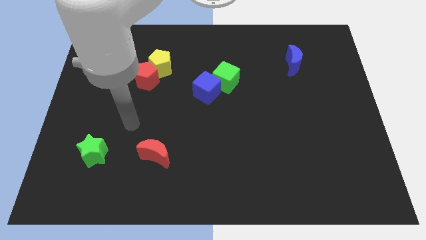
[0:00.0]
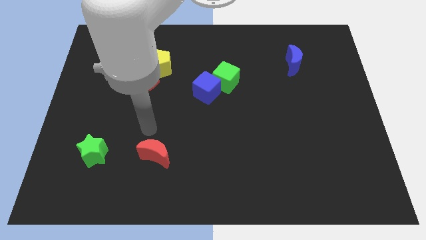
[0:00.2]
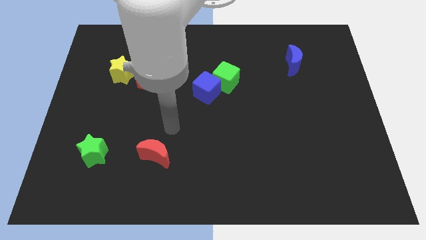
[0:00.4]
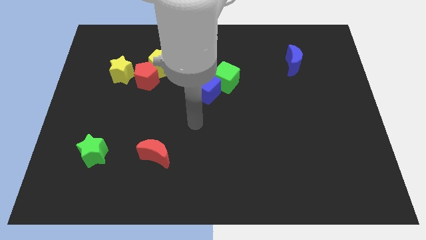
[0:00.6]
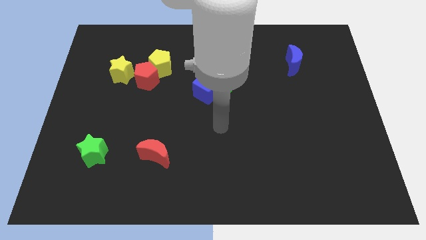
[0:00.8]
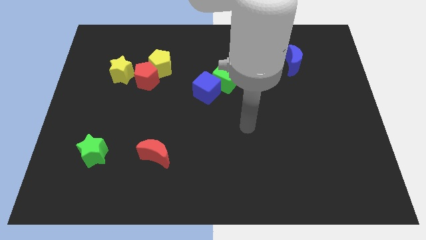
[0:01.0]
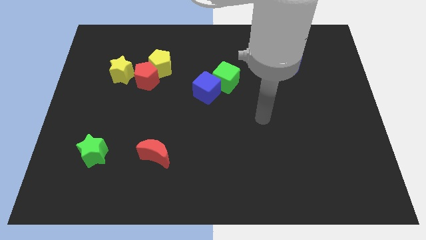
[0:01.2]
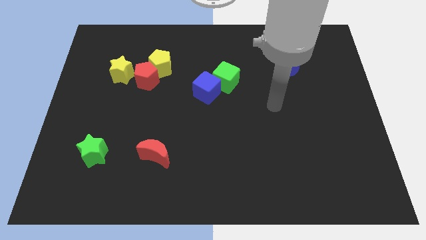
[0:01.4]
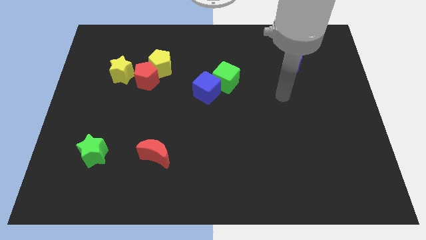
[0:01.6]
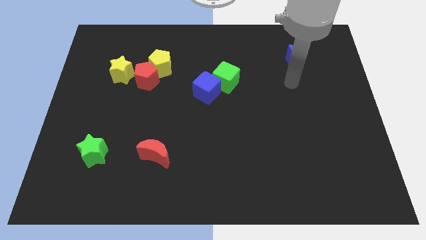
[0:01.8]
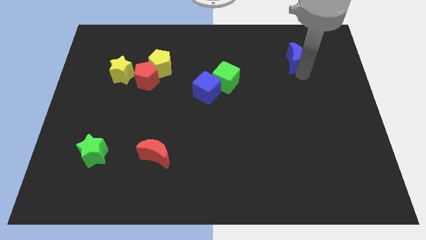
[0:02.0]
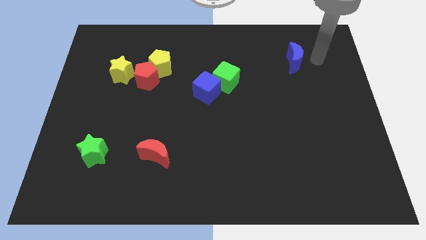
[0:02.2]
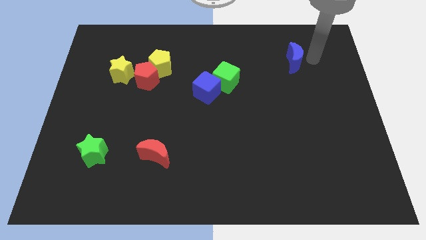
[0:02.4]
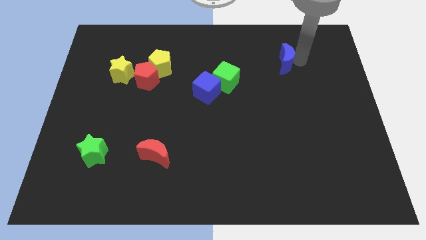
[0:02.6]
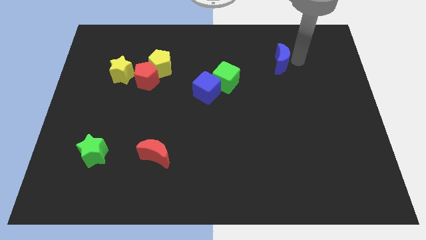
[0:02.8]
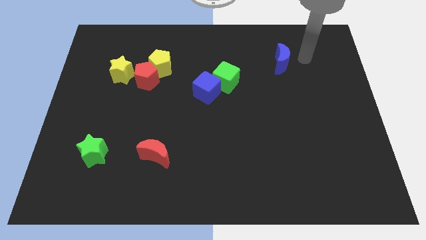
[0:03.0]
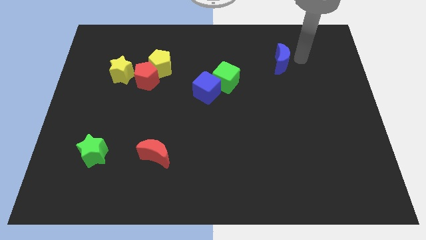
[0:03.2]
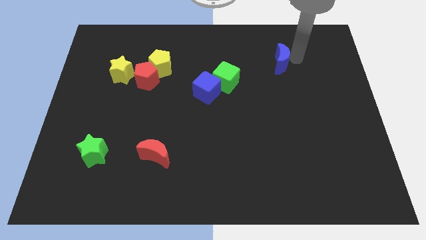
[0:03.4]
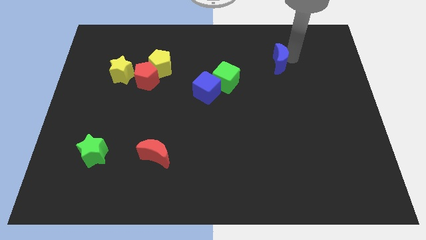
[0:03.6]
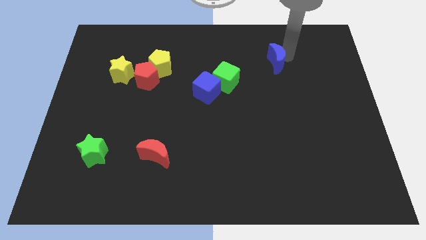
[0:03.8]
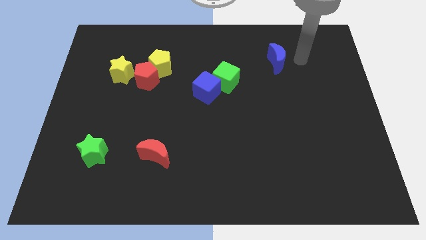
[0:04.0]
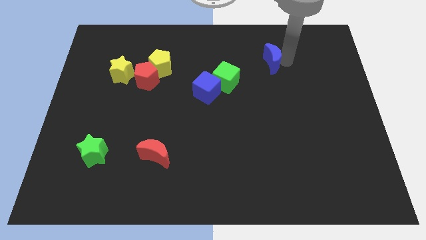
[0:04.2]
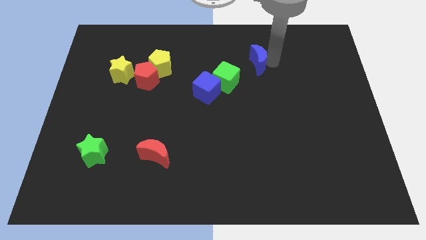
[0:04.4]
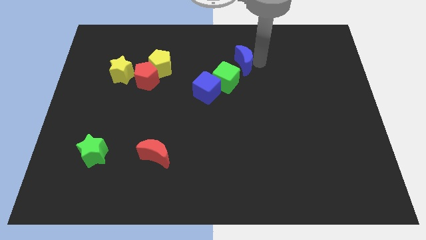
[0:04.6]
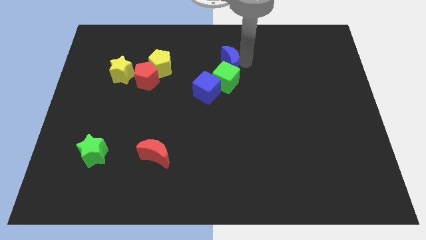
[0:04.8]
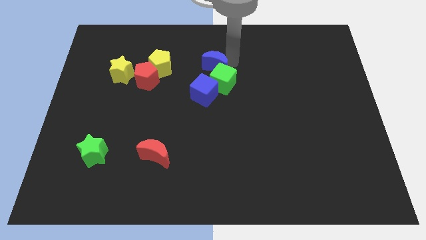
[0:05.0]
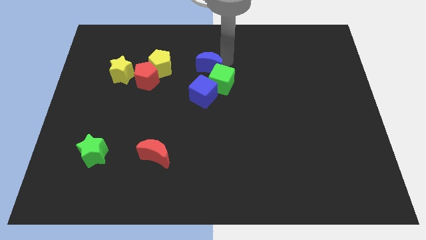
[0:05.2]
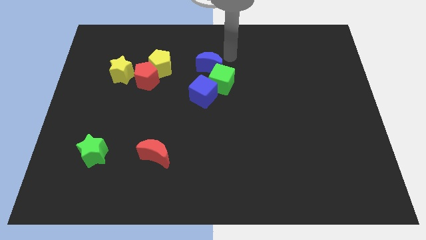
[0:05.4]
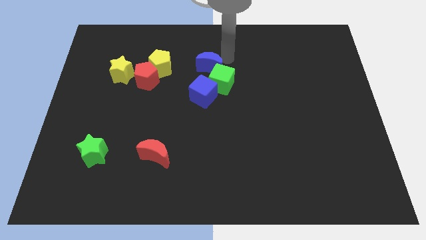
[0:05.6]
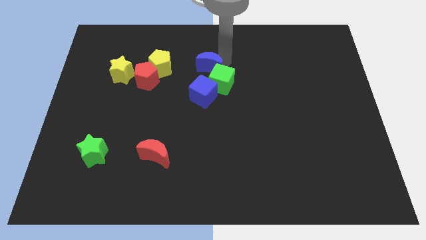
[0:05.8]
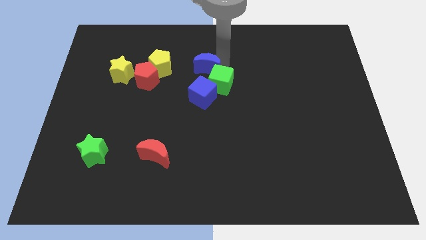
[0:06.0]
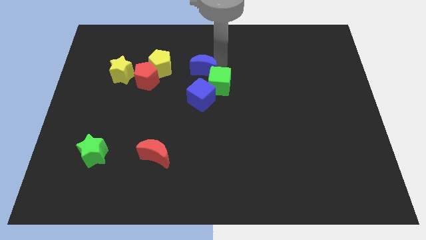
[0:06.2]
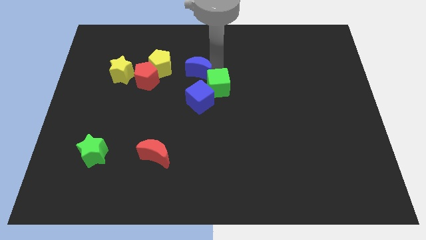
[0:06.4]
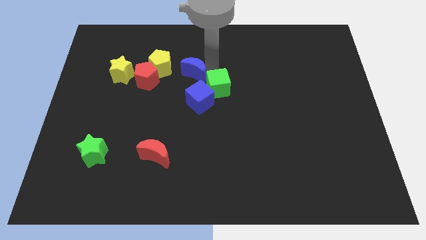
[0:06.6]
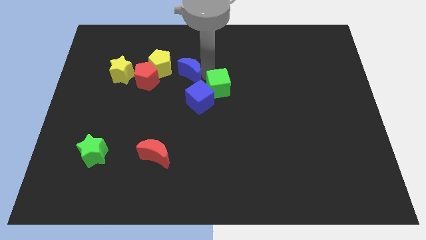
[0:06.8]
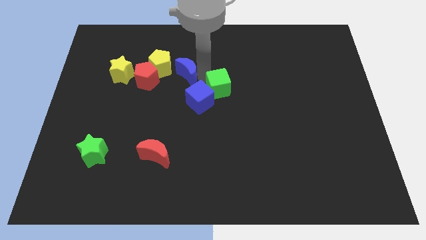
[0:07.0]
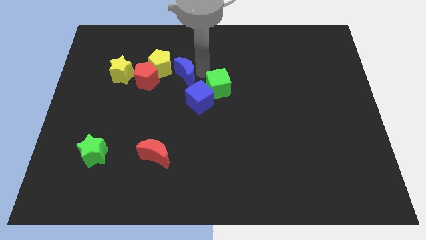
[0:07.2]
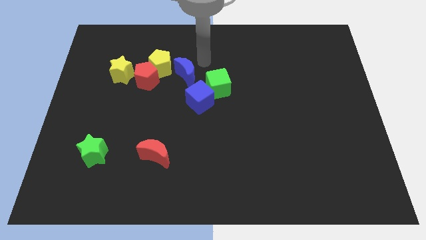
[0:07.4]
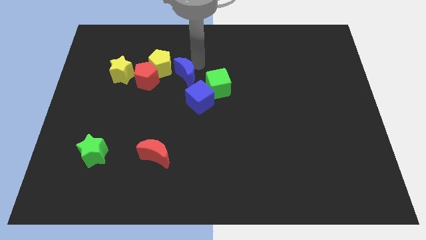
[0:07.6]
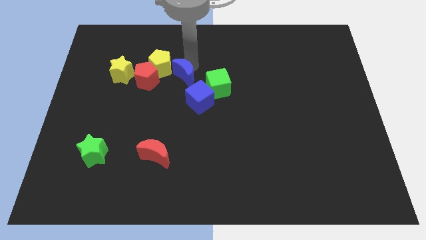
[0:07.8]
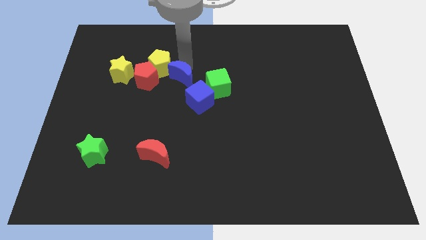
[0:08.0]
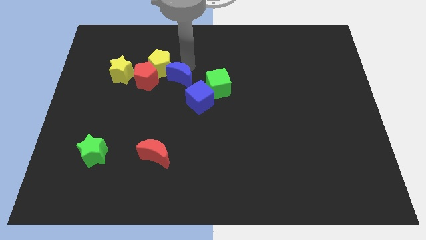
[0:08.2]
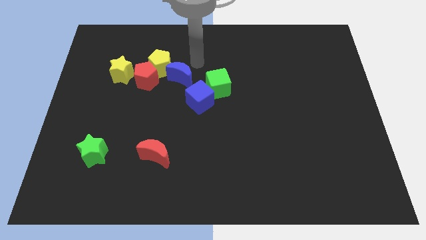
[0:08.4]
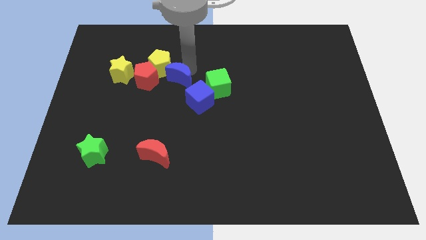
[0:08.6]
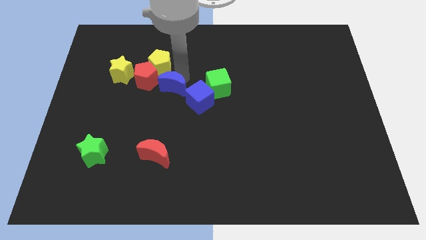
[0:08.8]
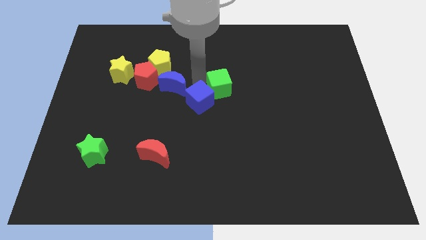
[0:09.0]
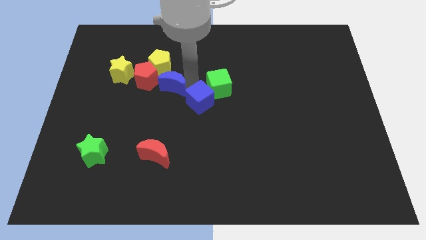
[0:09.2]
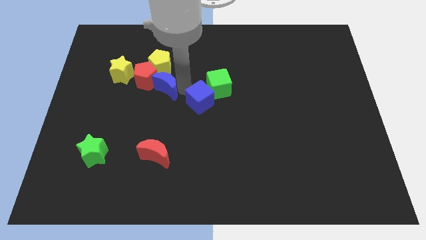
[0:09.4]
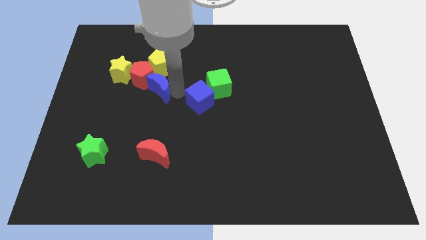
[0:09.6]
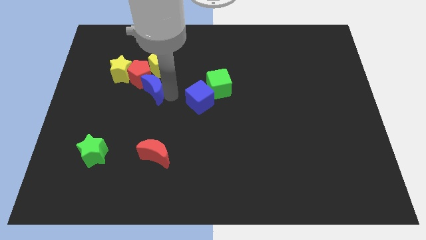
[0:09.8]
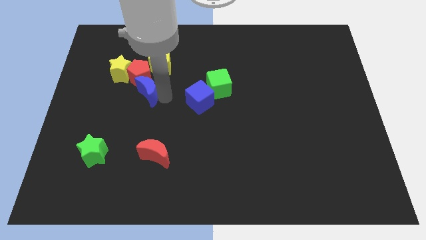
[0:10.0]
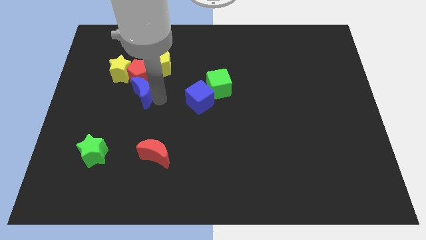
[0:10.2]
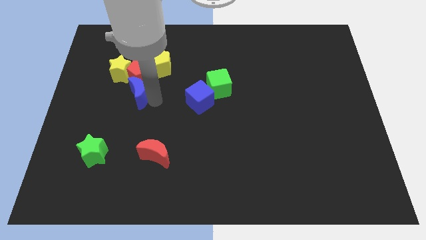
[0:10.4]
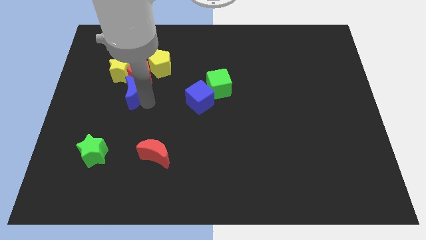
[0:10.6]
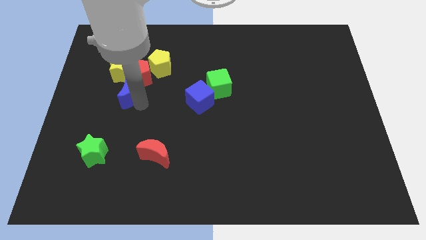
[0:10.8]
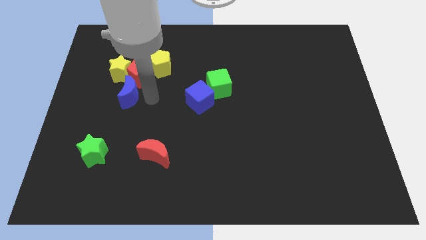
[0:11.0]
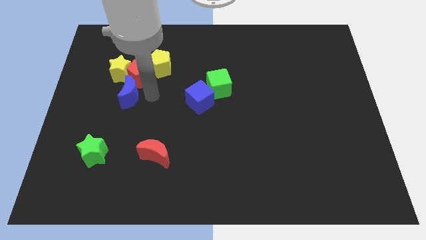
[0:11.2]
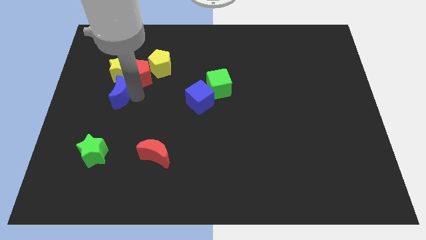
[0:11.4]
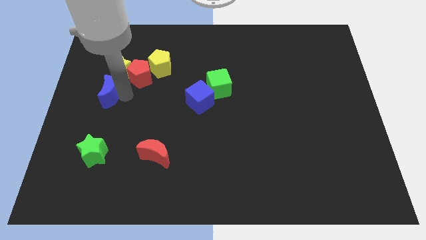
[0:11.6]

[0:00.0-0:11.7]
put the blue moon to the left side of the board

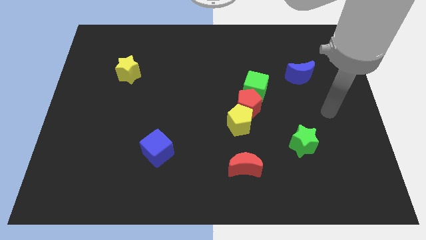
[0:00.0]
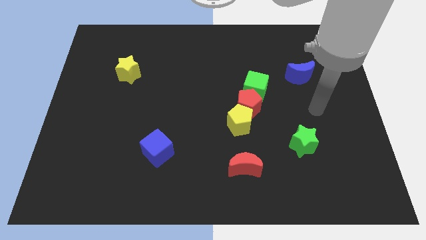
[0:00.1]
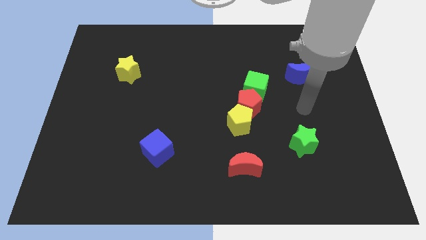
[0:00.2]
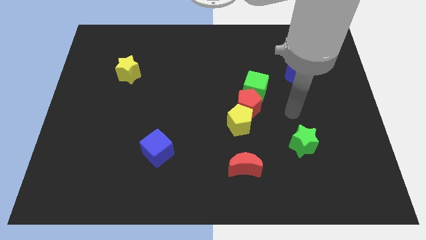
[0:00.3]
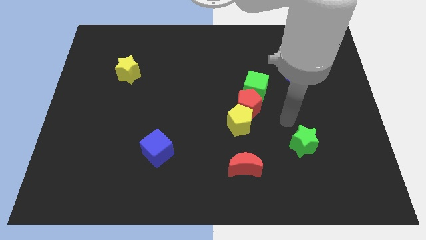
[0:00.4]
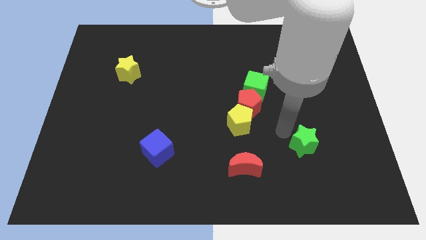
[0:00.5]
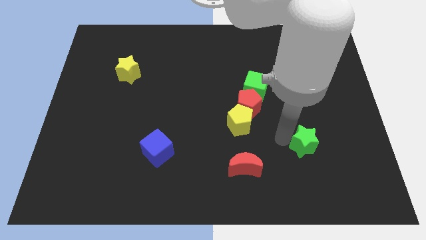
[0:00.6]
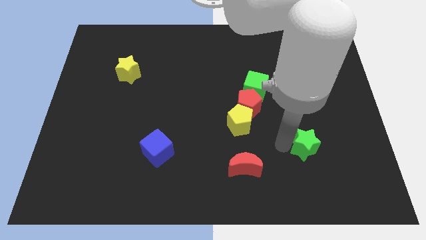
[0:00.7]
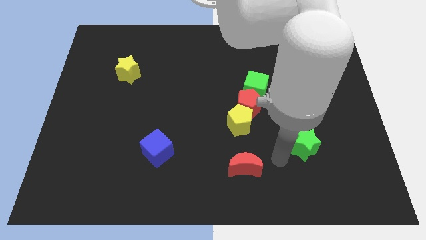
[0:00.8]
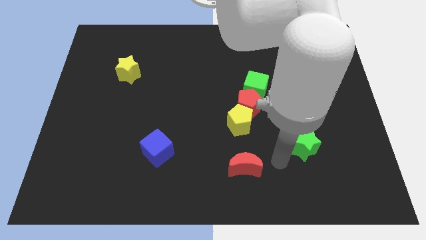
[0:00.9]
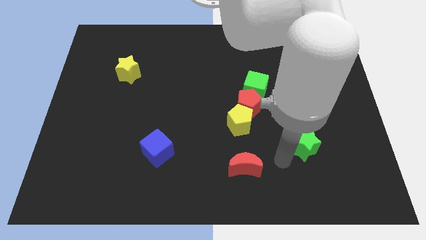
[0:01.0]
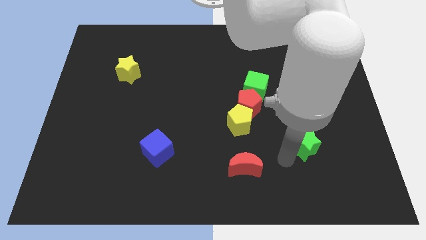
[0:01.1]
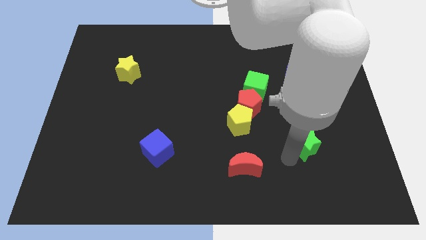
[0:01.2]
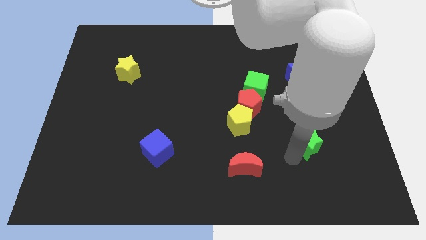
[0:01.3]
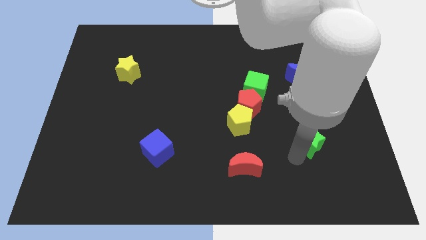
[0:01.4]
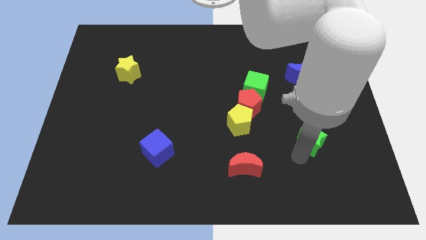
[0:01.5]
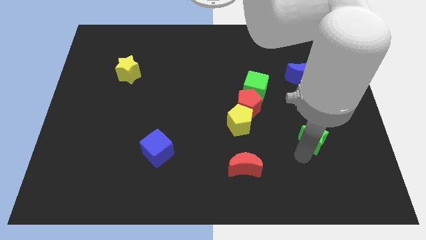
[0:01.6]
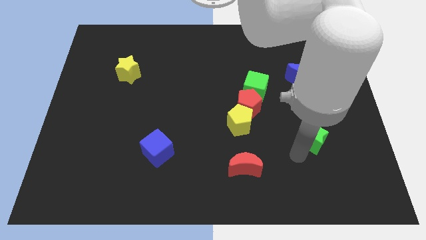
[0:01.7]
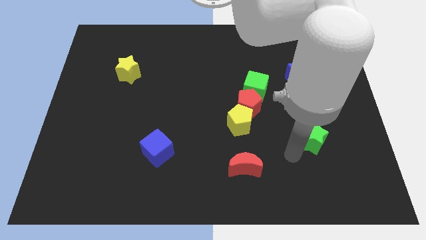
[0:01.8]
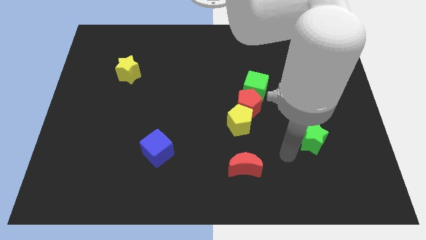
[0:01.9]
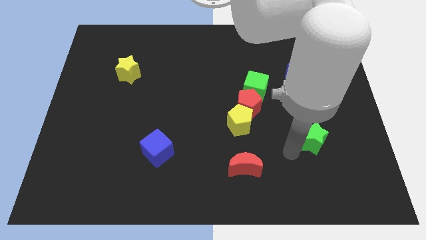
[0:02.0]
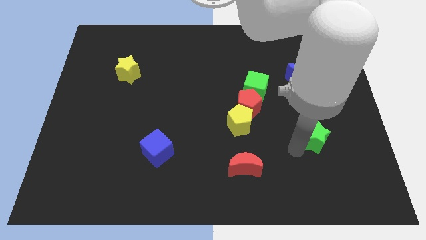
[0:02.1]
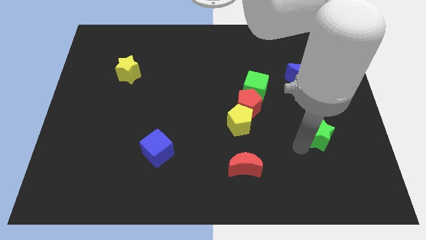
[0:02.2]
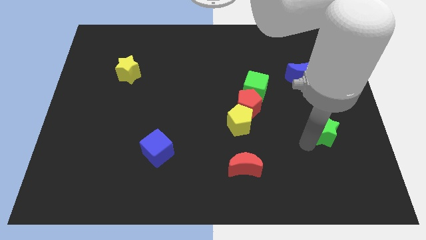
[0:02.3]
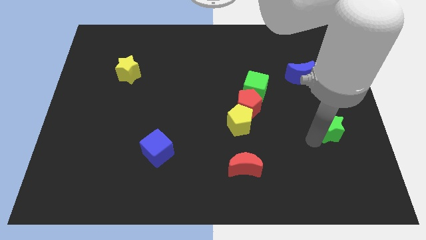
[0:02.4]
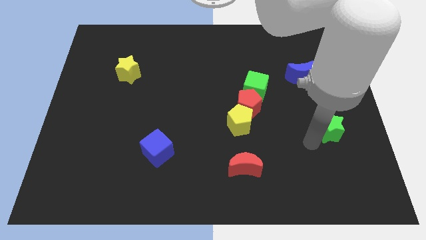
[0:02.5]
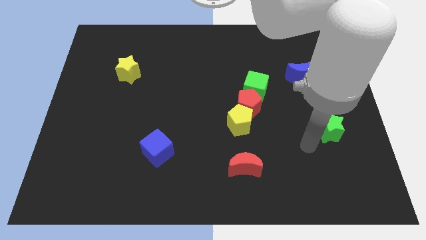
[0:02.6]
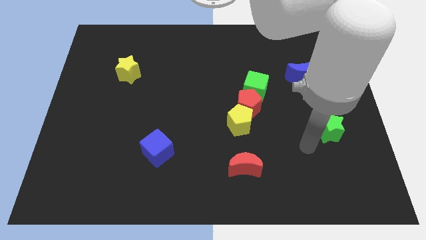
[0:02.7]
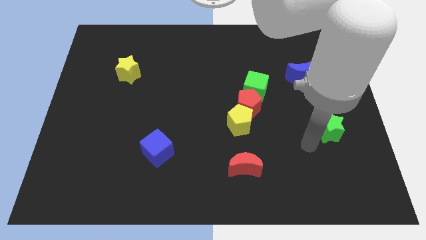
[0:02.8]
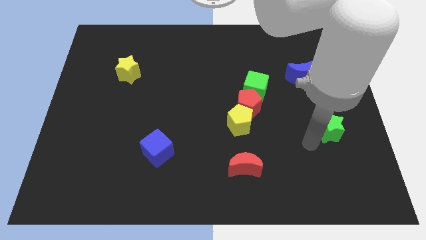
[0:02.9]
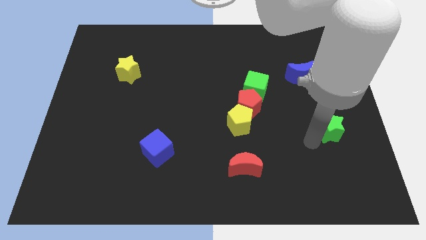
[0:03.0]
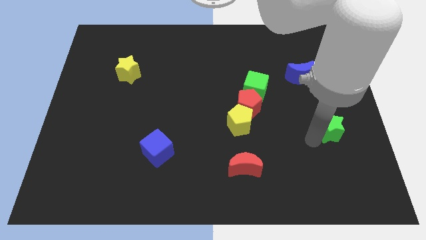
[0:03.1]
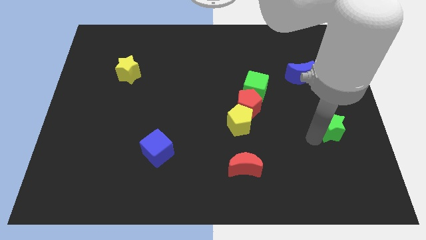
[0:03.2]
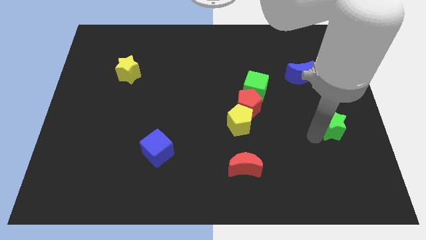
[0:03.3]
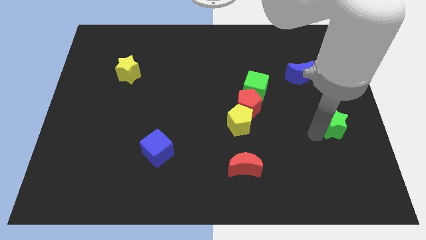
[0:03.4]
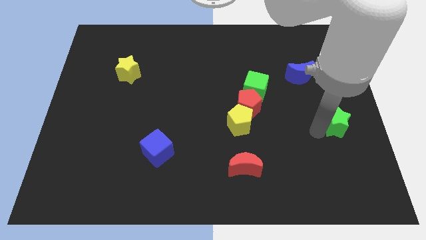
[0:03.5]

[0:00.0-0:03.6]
slide the green star to the center right
